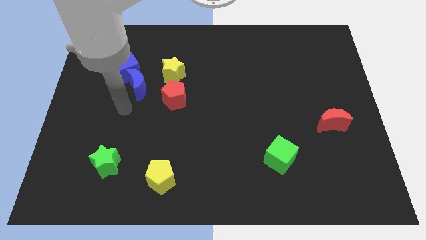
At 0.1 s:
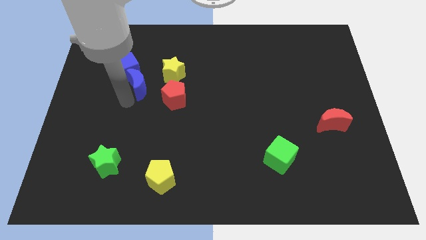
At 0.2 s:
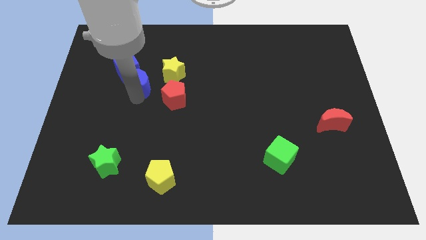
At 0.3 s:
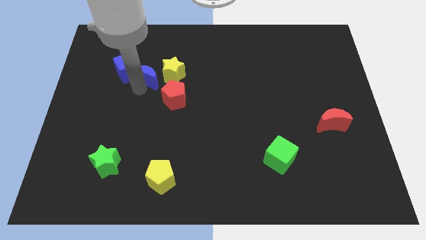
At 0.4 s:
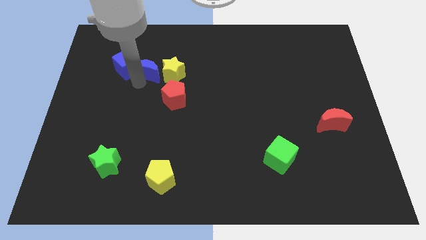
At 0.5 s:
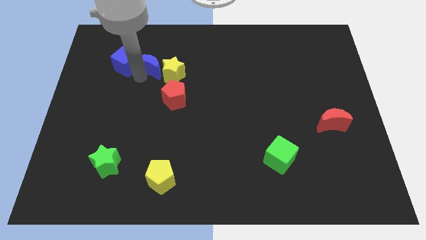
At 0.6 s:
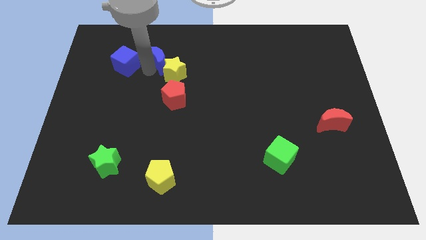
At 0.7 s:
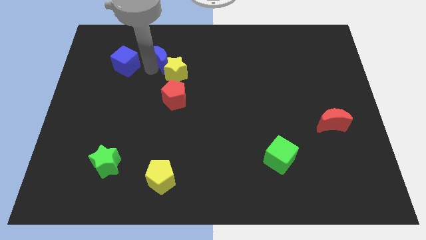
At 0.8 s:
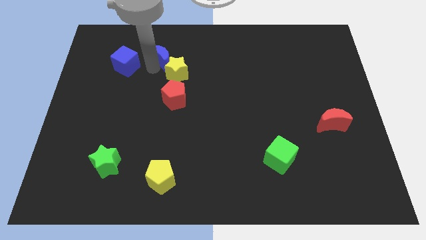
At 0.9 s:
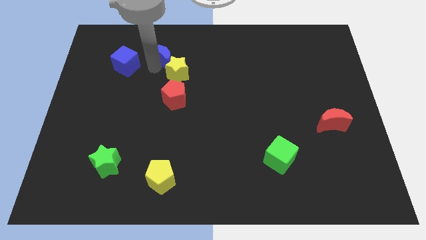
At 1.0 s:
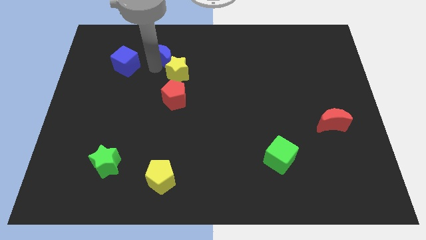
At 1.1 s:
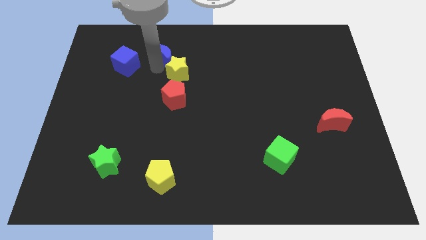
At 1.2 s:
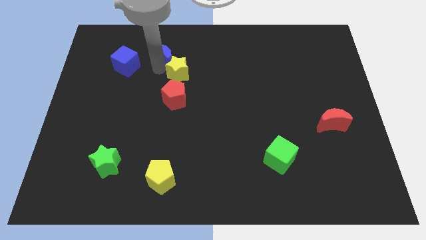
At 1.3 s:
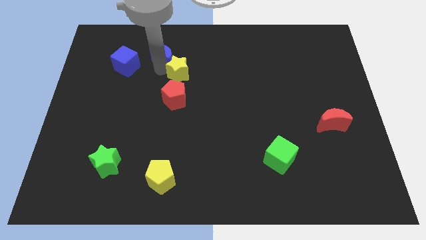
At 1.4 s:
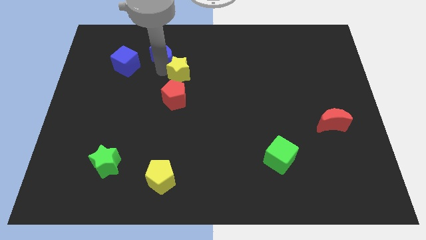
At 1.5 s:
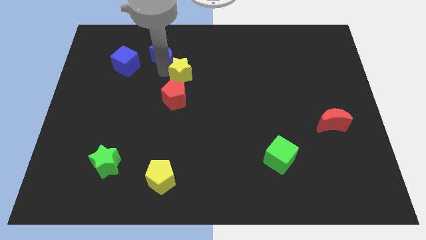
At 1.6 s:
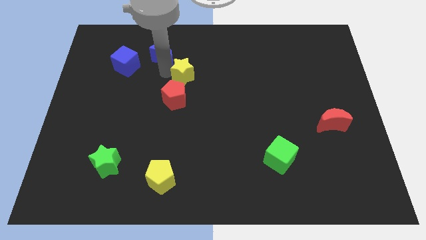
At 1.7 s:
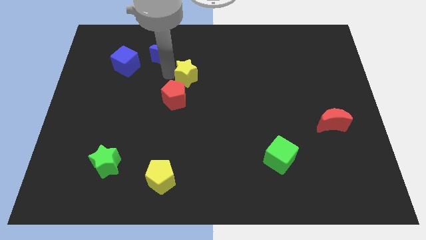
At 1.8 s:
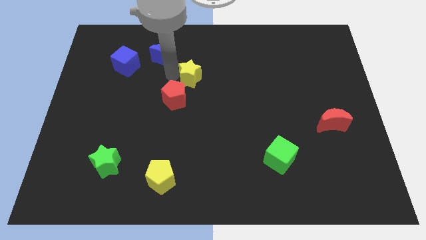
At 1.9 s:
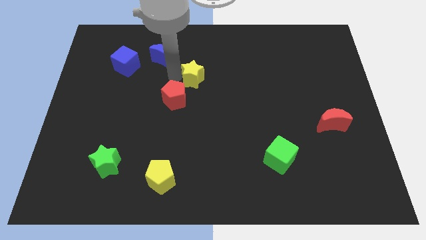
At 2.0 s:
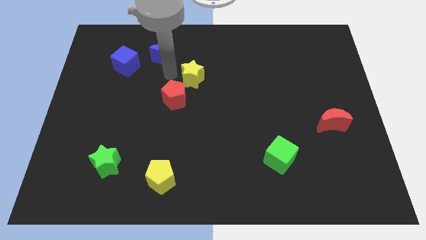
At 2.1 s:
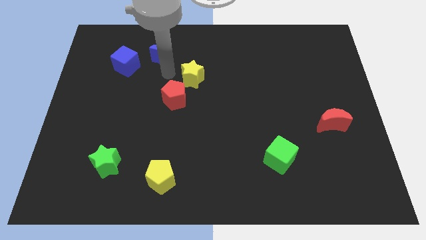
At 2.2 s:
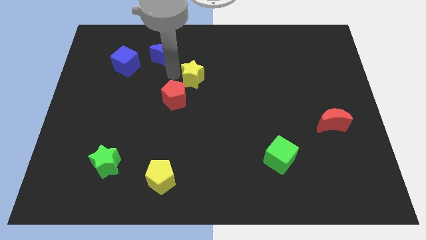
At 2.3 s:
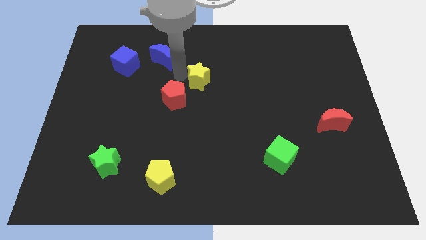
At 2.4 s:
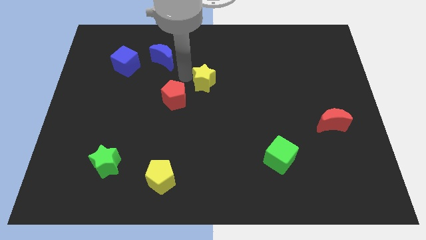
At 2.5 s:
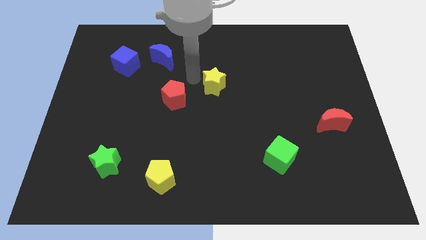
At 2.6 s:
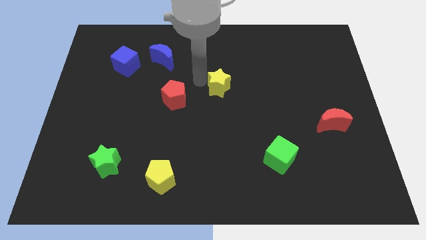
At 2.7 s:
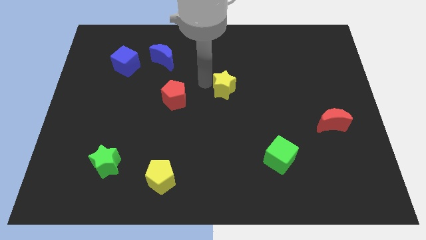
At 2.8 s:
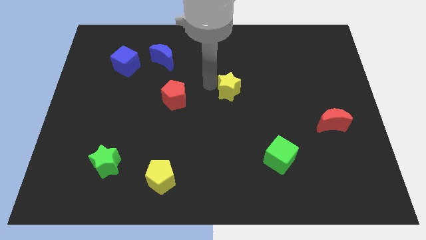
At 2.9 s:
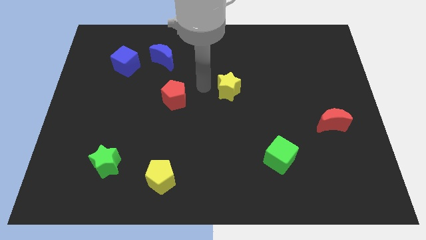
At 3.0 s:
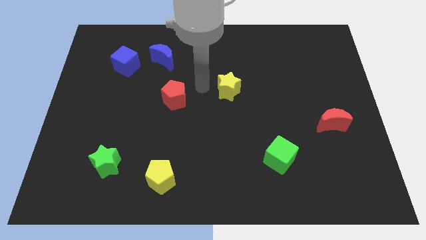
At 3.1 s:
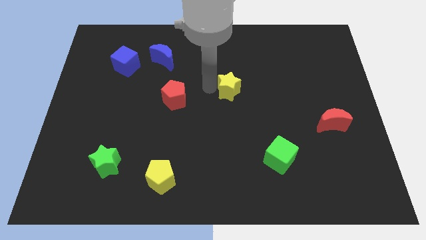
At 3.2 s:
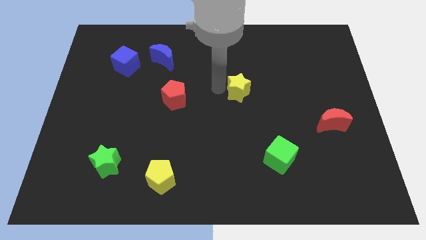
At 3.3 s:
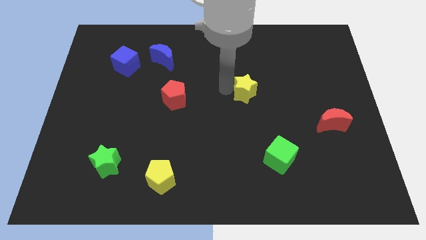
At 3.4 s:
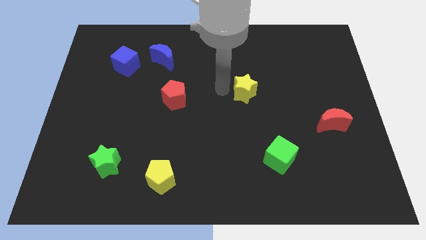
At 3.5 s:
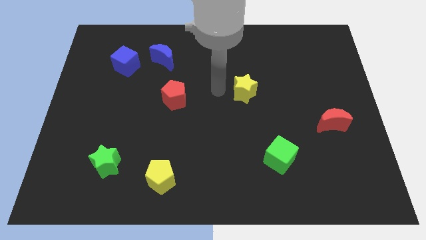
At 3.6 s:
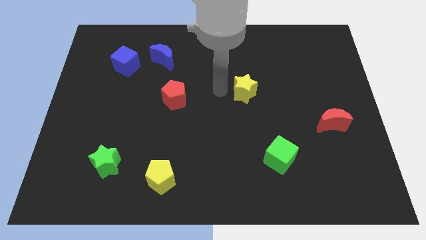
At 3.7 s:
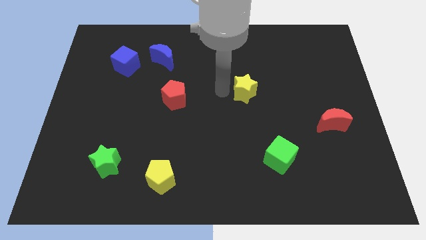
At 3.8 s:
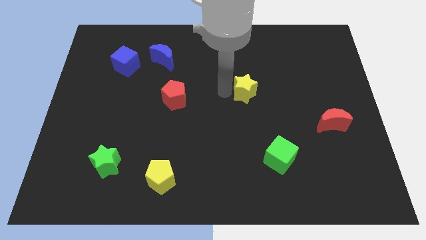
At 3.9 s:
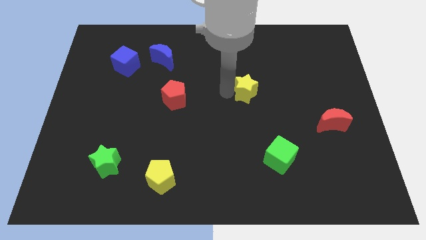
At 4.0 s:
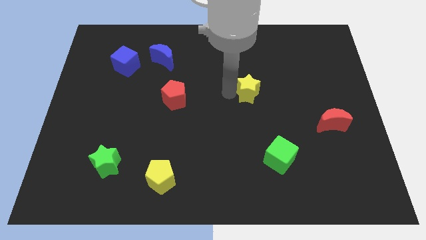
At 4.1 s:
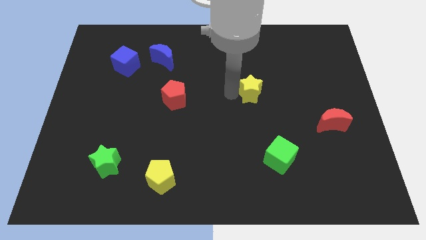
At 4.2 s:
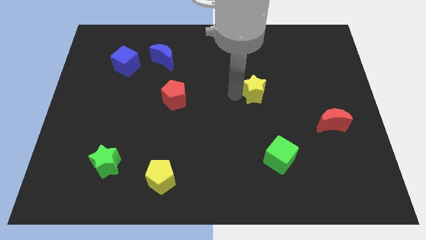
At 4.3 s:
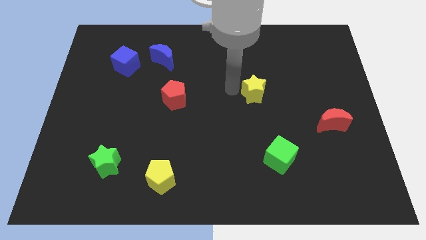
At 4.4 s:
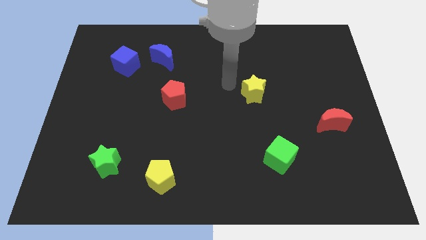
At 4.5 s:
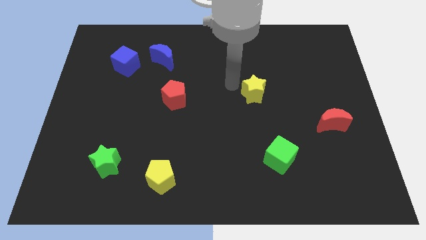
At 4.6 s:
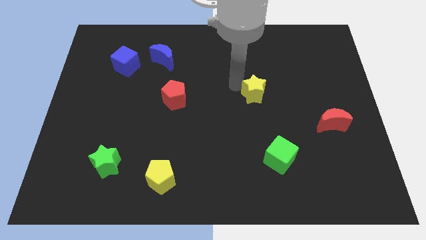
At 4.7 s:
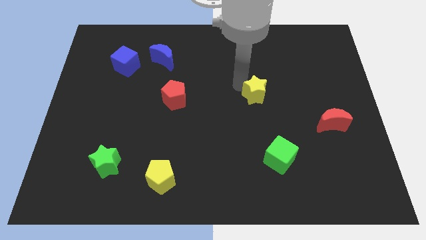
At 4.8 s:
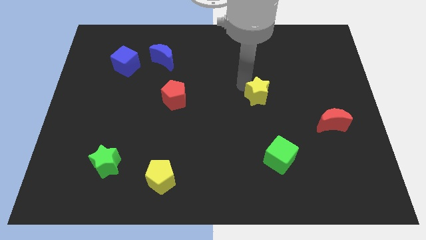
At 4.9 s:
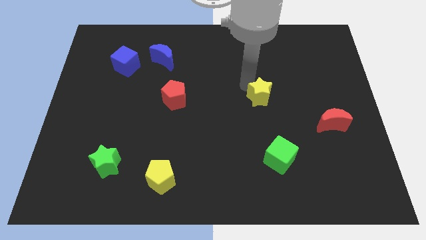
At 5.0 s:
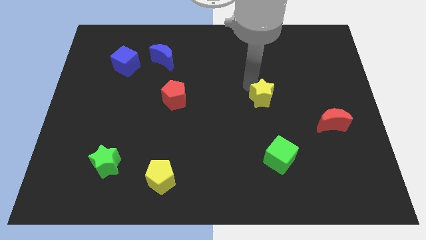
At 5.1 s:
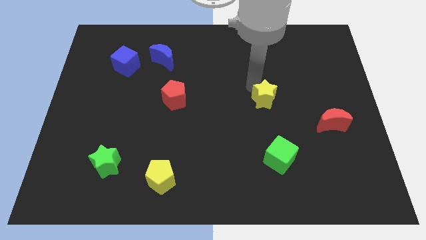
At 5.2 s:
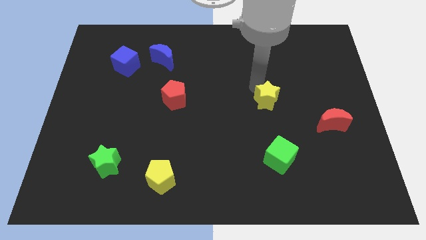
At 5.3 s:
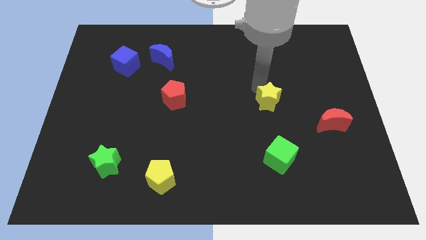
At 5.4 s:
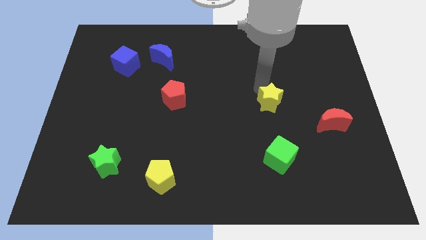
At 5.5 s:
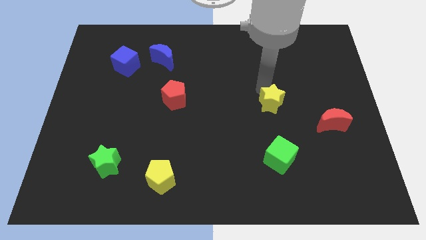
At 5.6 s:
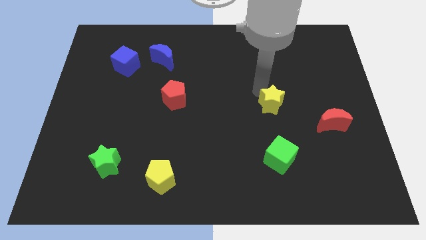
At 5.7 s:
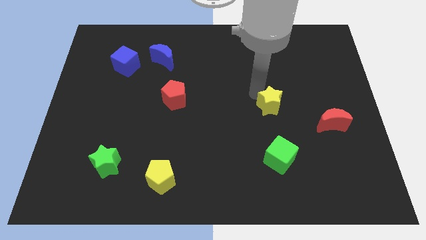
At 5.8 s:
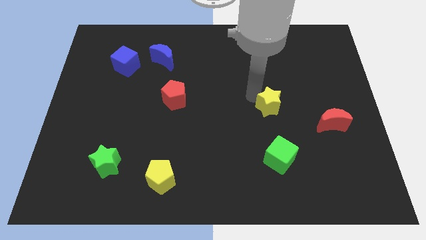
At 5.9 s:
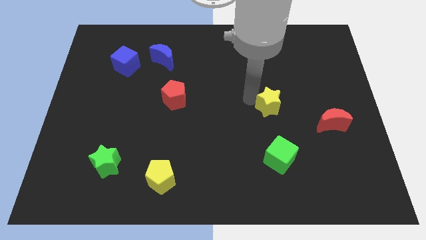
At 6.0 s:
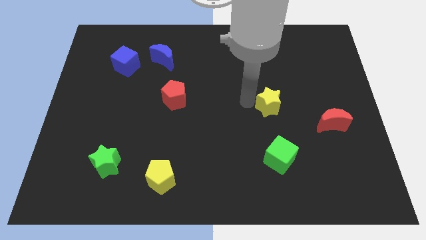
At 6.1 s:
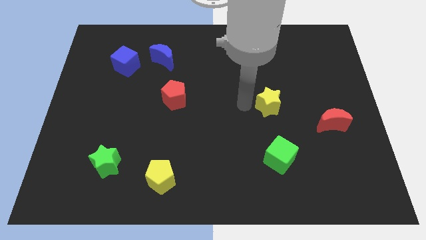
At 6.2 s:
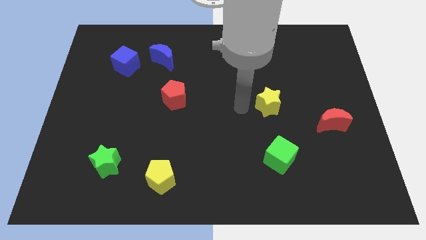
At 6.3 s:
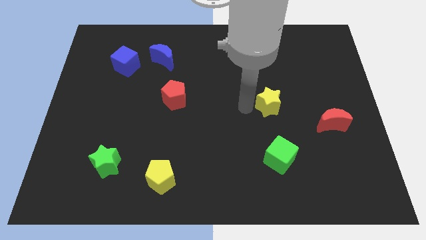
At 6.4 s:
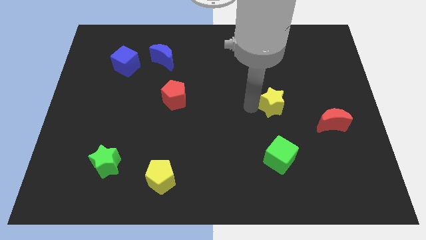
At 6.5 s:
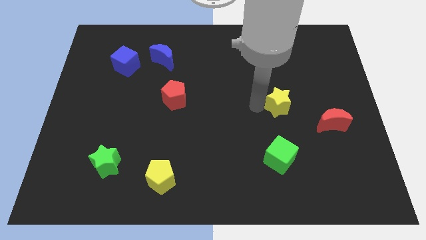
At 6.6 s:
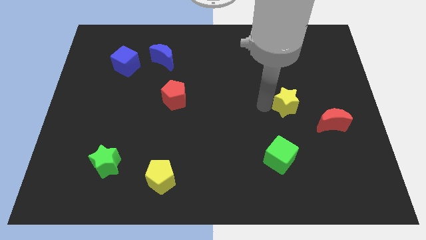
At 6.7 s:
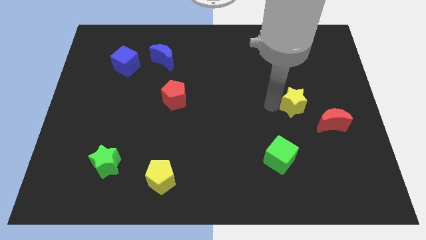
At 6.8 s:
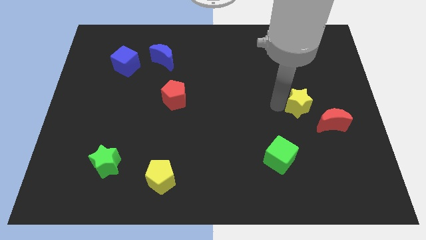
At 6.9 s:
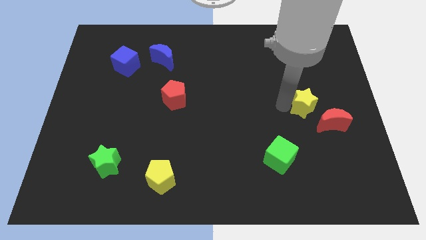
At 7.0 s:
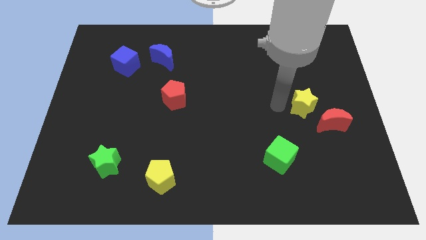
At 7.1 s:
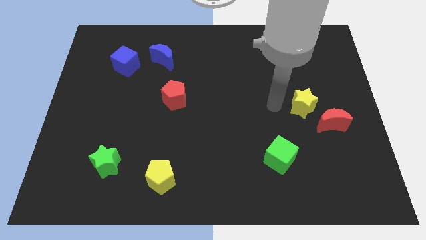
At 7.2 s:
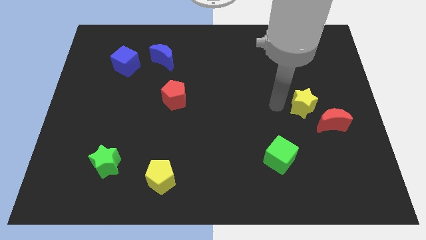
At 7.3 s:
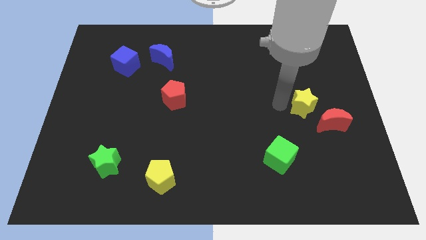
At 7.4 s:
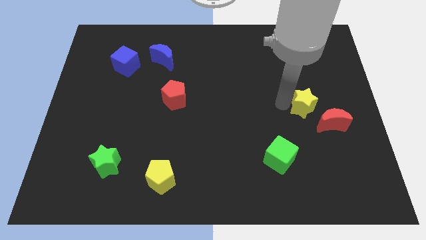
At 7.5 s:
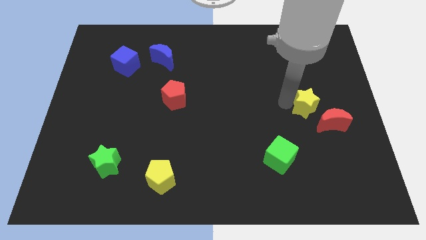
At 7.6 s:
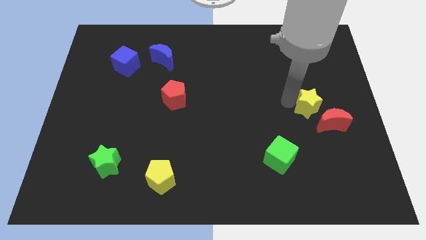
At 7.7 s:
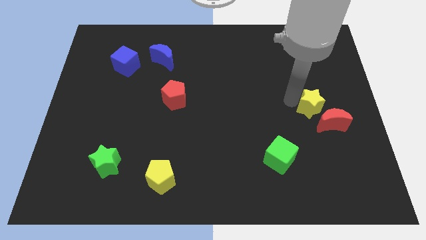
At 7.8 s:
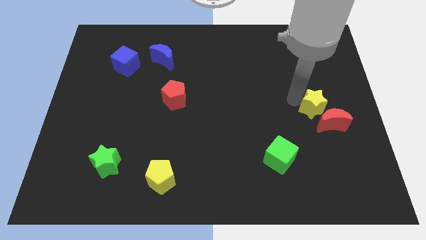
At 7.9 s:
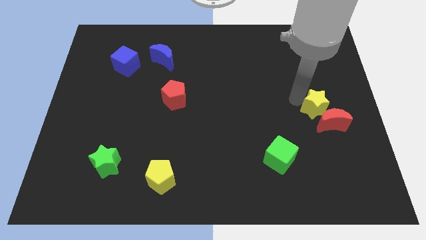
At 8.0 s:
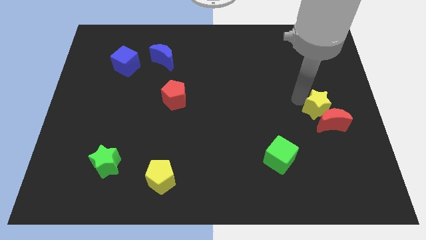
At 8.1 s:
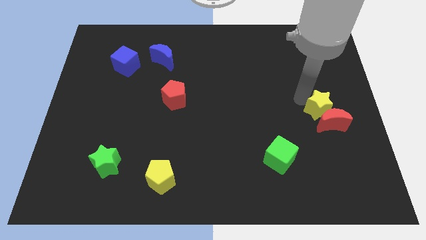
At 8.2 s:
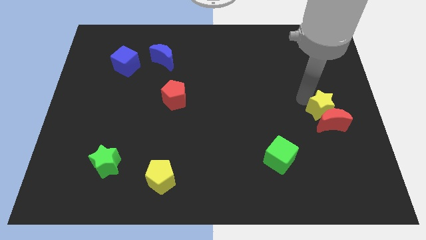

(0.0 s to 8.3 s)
move the yellow star to the center right
